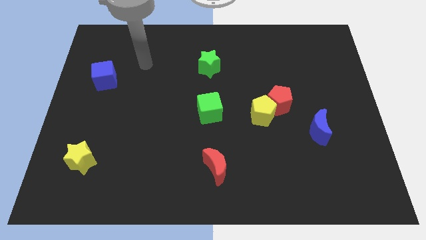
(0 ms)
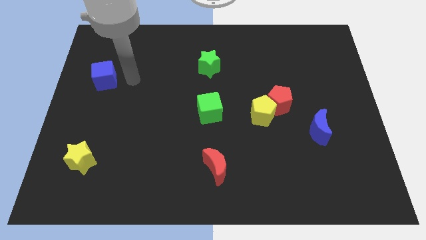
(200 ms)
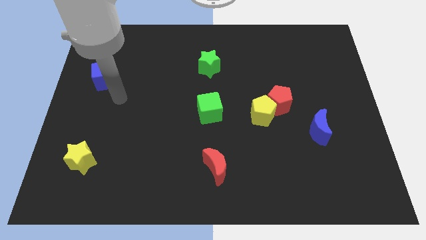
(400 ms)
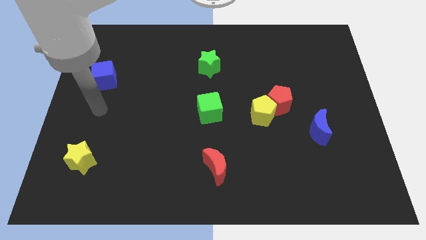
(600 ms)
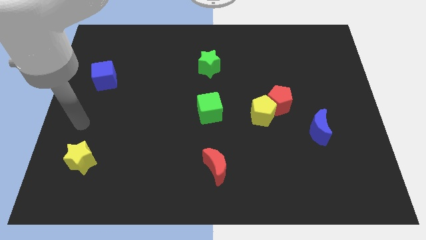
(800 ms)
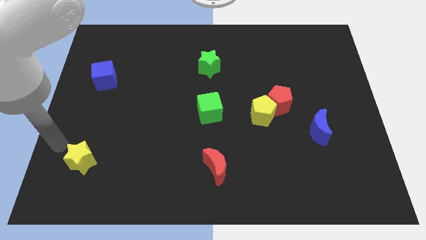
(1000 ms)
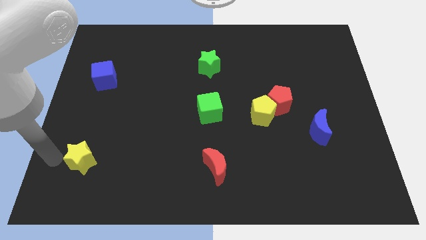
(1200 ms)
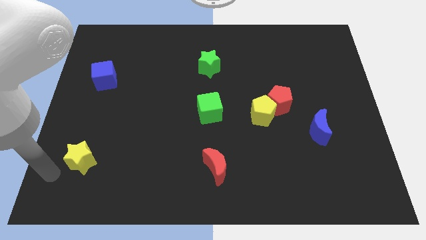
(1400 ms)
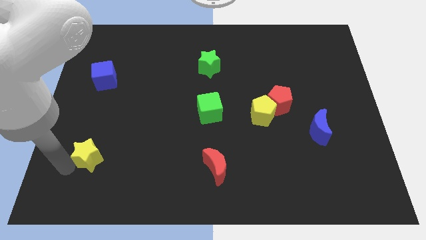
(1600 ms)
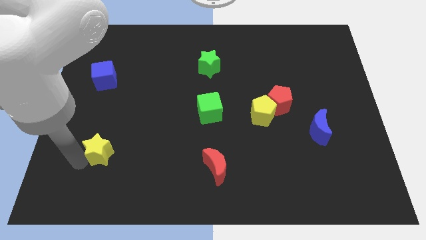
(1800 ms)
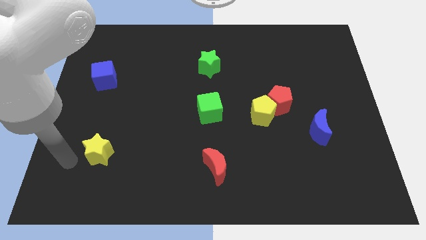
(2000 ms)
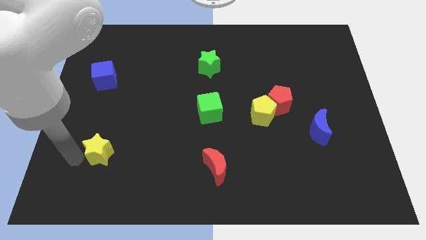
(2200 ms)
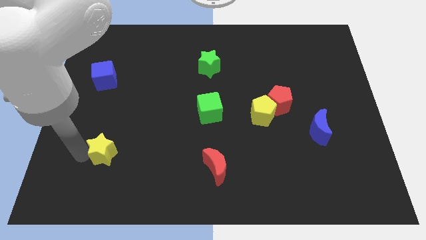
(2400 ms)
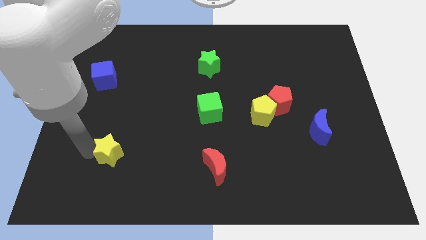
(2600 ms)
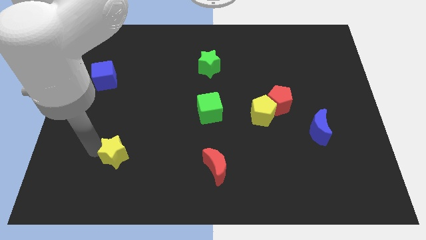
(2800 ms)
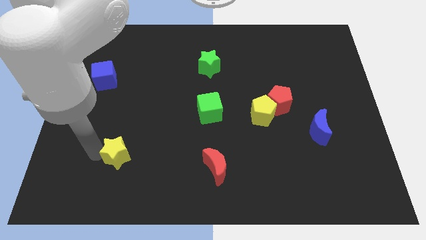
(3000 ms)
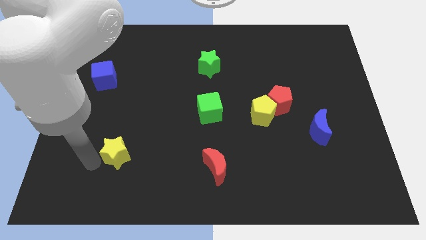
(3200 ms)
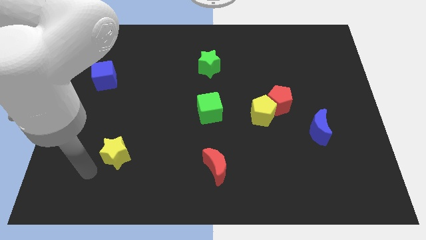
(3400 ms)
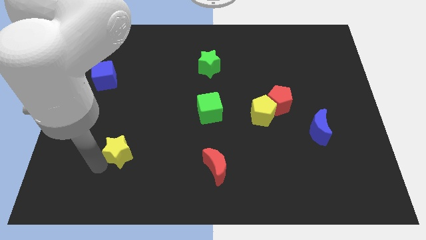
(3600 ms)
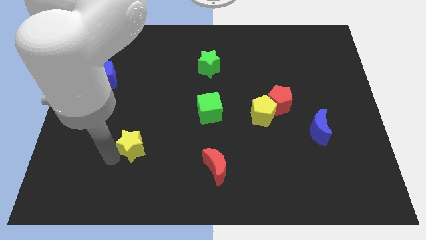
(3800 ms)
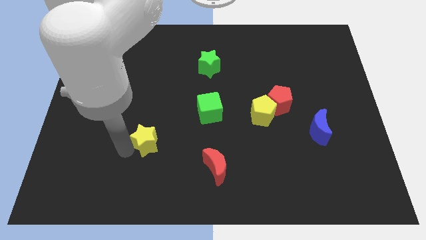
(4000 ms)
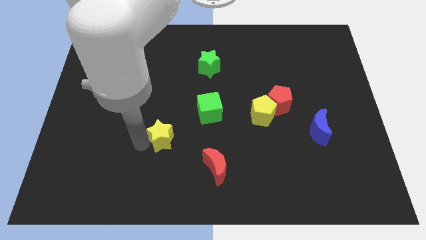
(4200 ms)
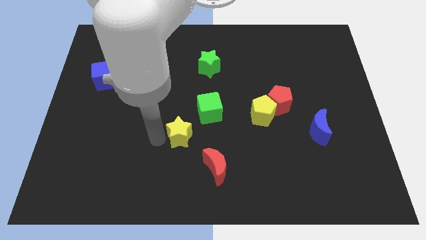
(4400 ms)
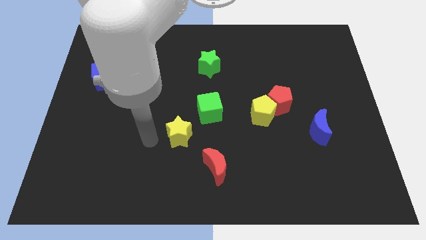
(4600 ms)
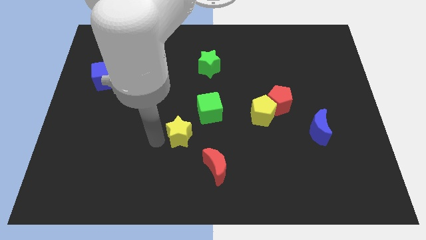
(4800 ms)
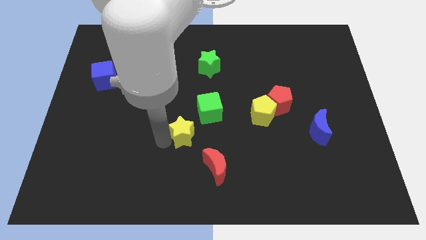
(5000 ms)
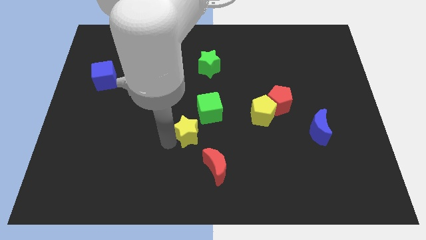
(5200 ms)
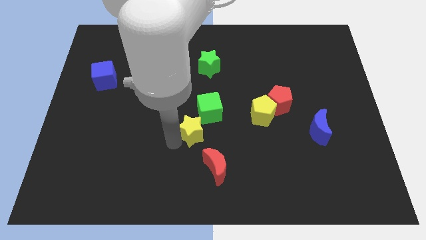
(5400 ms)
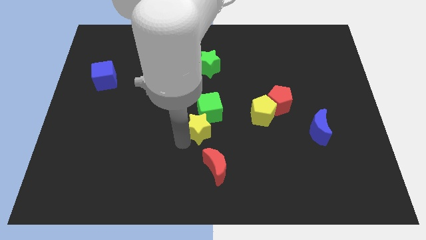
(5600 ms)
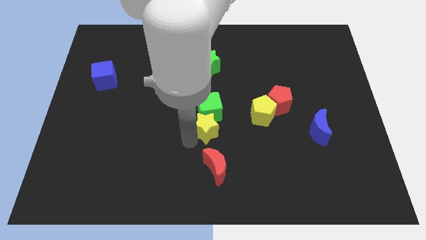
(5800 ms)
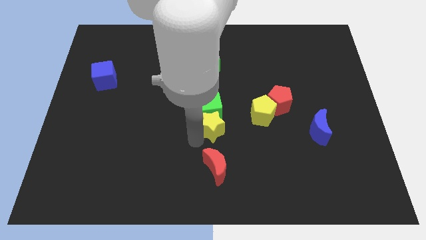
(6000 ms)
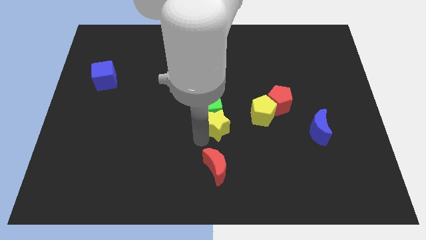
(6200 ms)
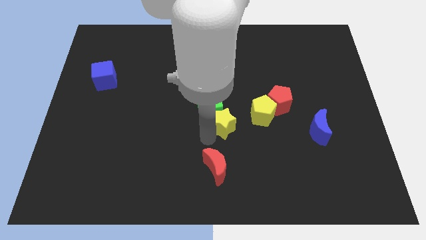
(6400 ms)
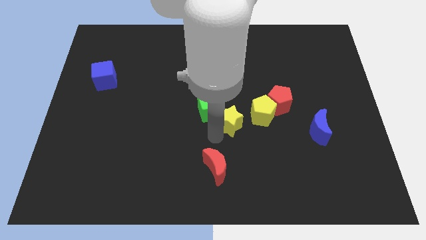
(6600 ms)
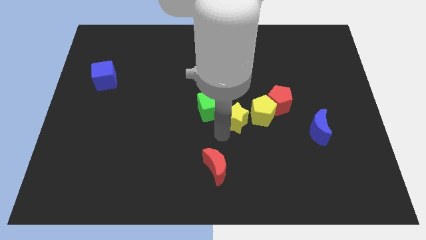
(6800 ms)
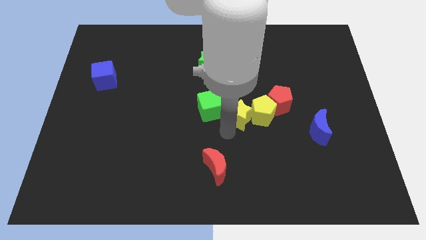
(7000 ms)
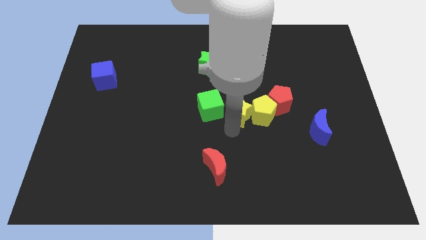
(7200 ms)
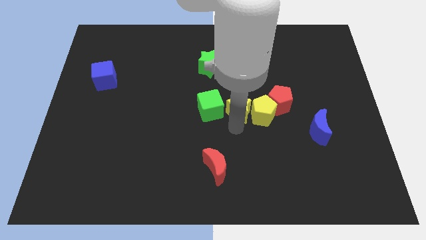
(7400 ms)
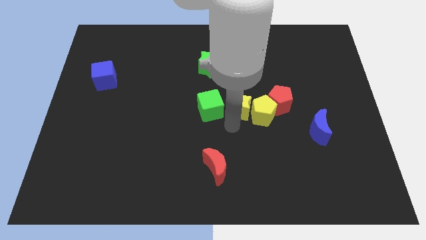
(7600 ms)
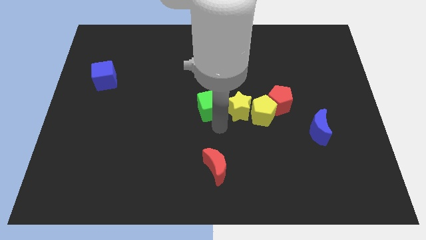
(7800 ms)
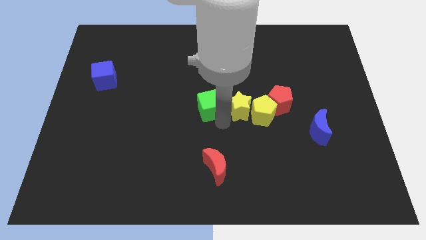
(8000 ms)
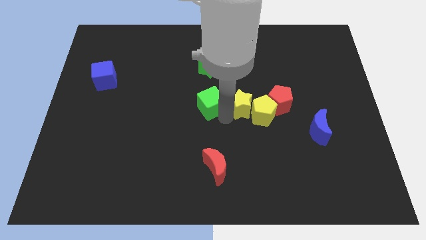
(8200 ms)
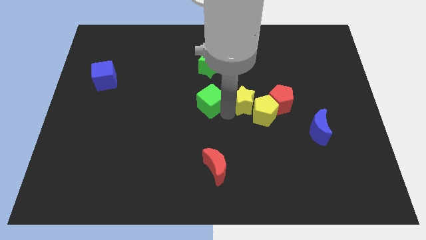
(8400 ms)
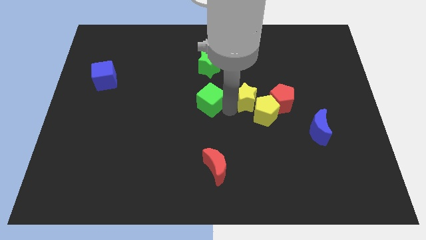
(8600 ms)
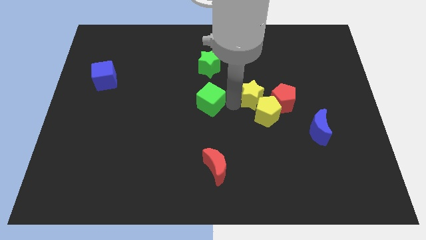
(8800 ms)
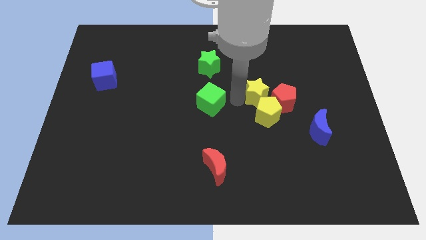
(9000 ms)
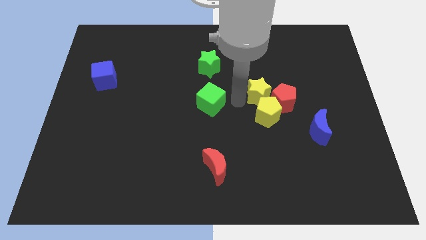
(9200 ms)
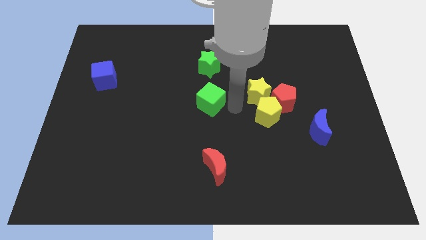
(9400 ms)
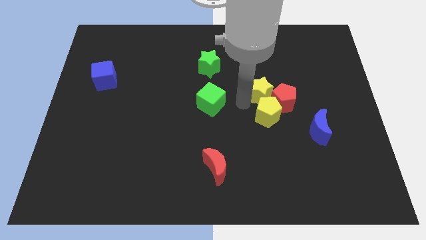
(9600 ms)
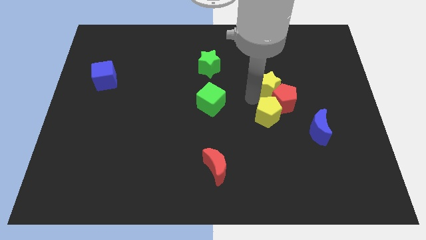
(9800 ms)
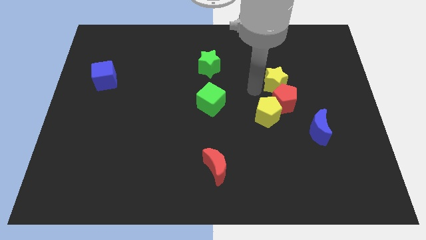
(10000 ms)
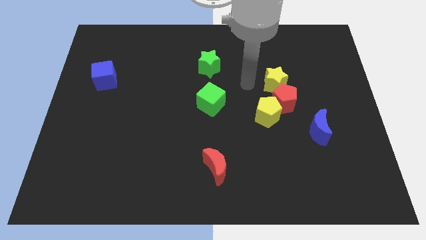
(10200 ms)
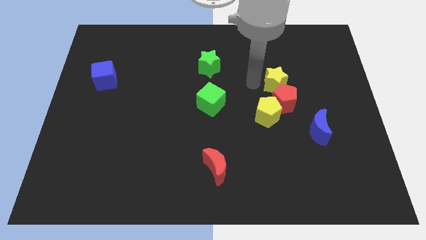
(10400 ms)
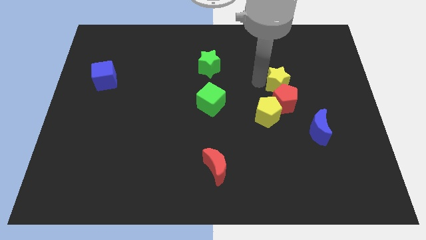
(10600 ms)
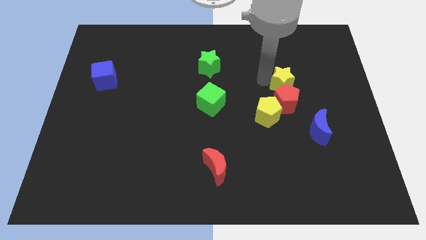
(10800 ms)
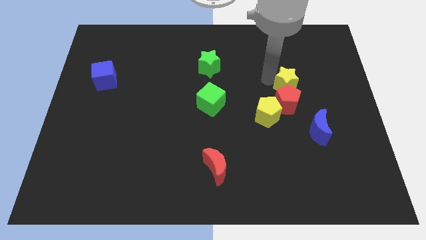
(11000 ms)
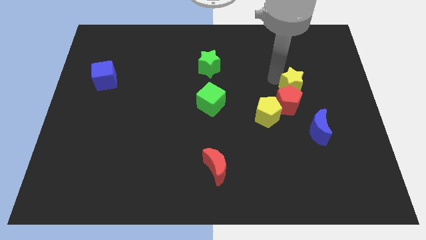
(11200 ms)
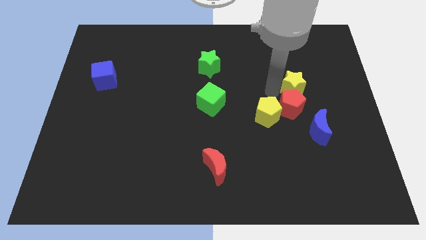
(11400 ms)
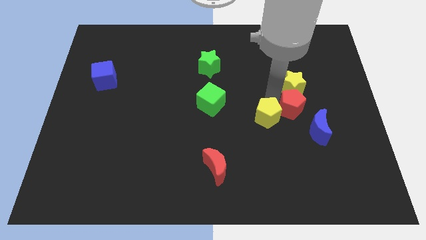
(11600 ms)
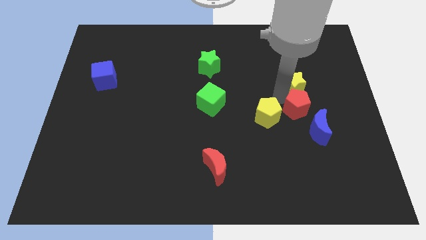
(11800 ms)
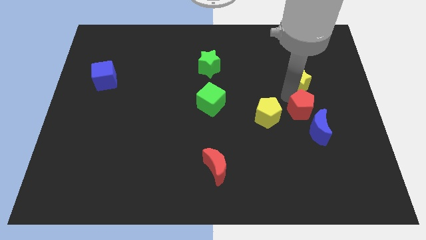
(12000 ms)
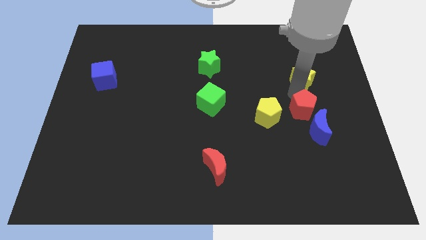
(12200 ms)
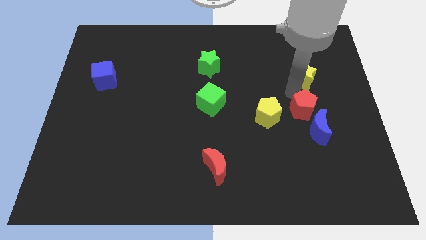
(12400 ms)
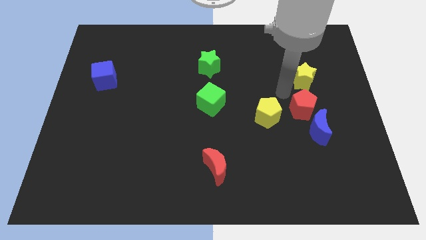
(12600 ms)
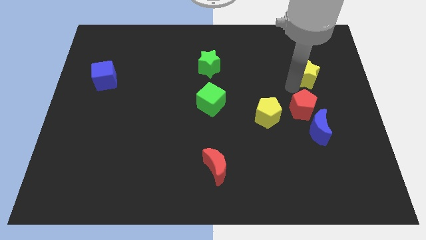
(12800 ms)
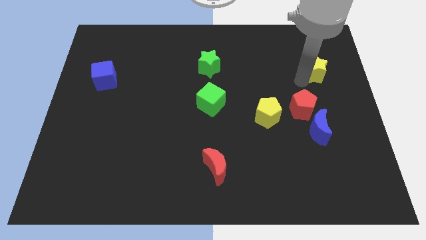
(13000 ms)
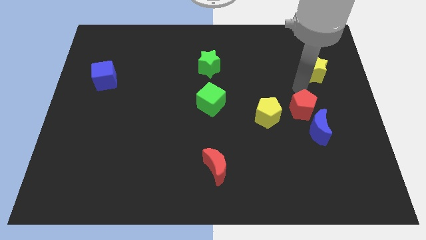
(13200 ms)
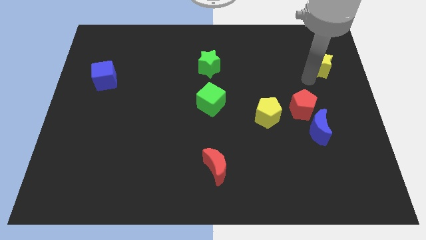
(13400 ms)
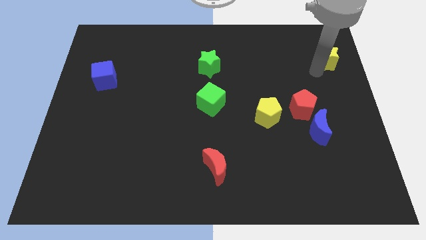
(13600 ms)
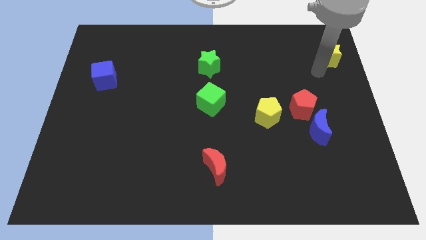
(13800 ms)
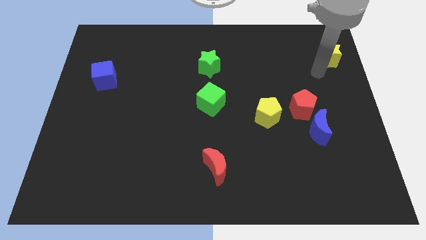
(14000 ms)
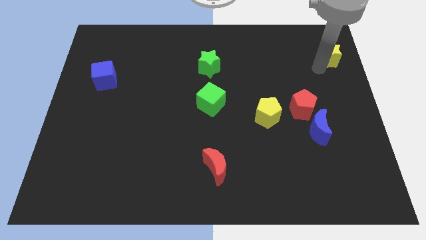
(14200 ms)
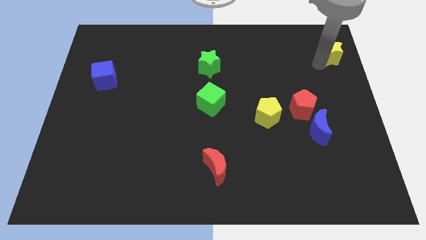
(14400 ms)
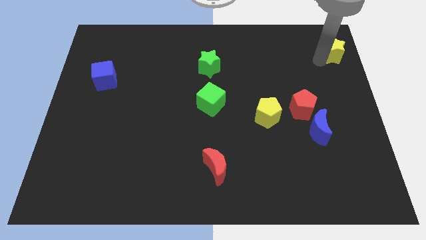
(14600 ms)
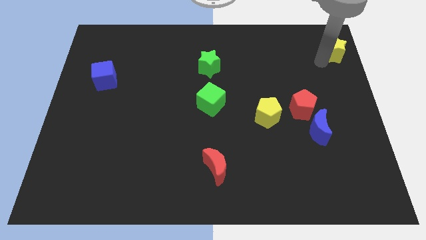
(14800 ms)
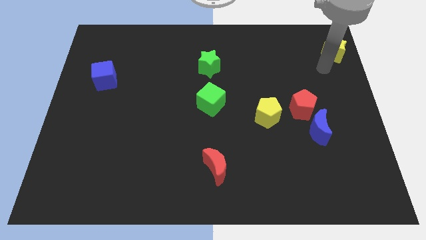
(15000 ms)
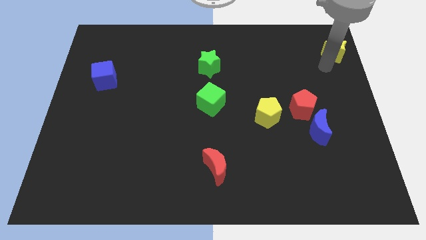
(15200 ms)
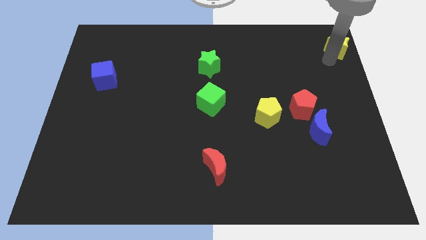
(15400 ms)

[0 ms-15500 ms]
push the yellow star to the top right of the board
